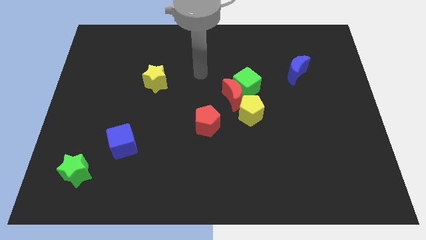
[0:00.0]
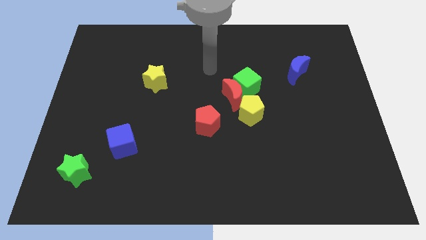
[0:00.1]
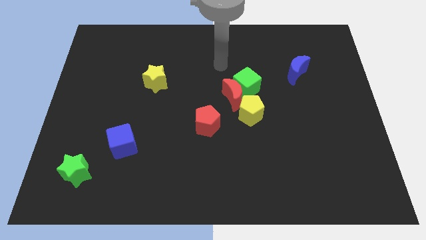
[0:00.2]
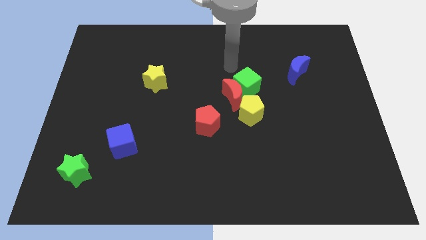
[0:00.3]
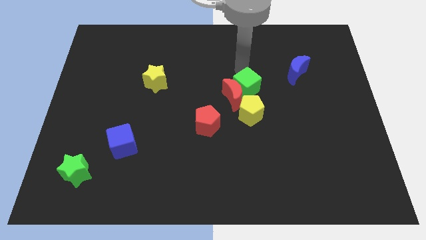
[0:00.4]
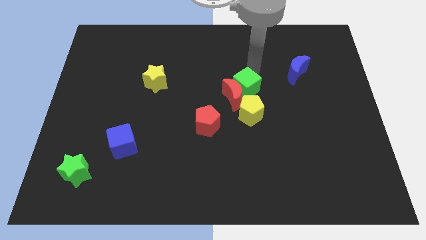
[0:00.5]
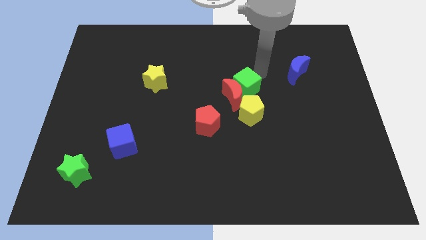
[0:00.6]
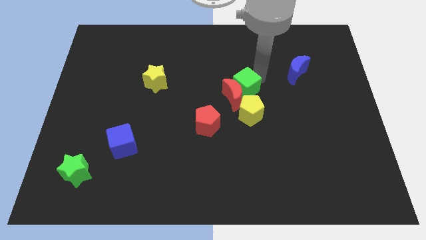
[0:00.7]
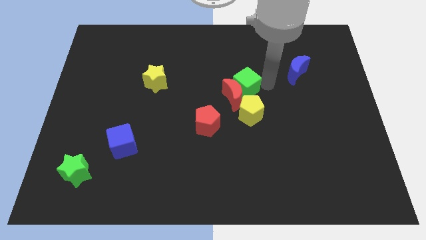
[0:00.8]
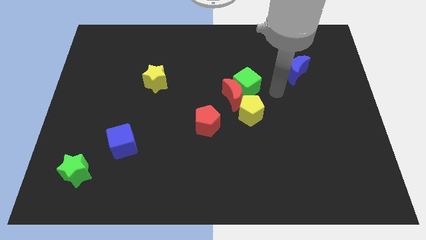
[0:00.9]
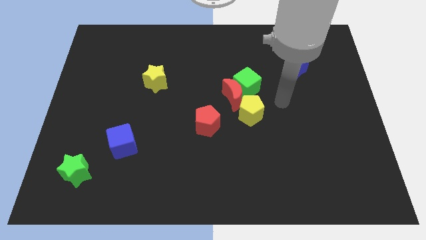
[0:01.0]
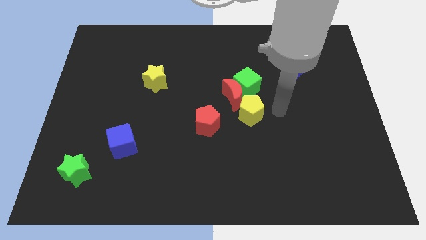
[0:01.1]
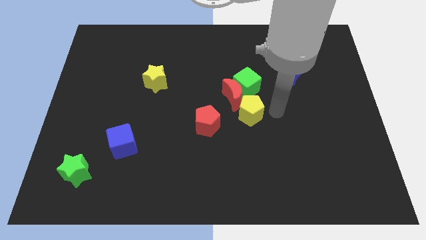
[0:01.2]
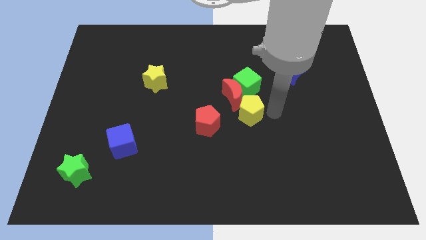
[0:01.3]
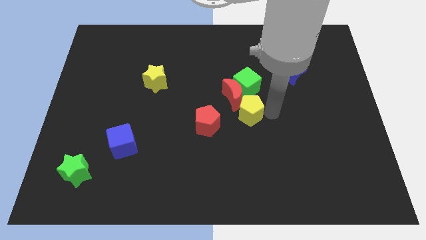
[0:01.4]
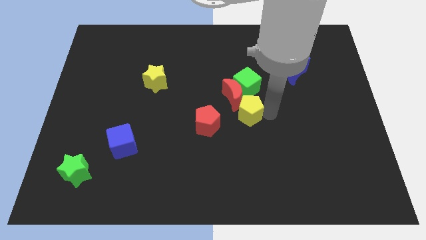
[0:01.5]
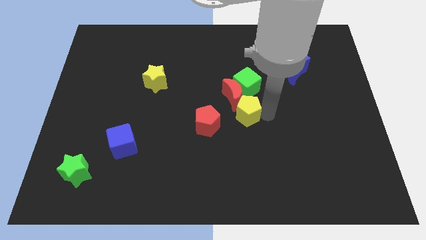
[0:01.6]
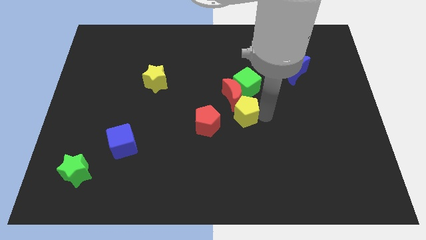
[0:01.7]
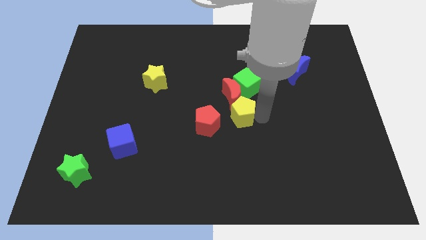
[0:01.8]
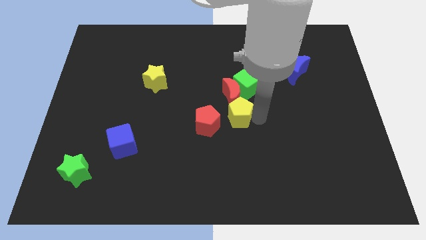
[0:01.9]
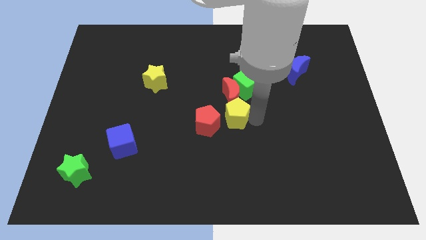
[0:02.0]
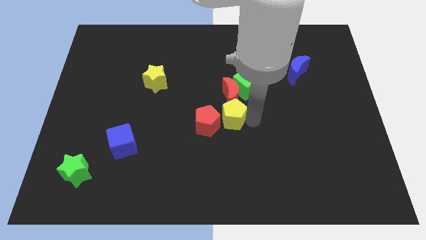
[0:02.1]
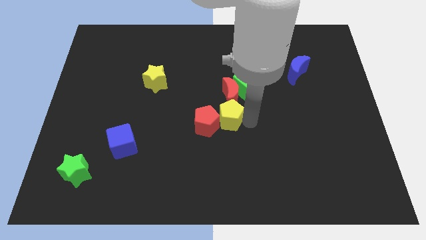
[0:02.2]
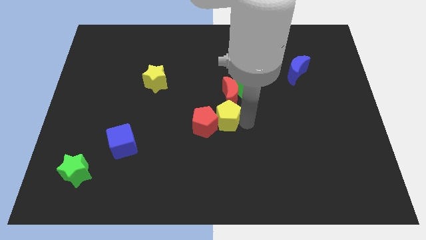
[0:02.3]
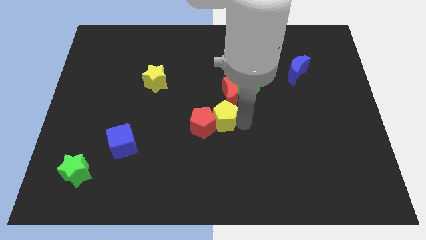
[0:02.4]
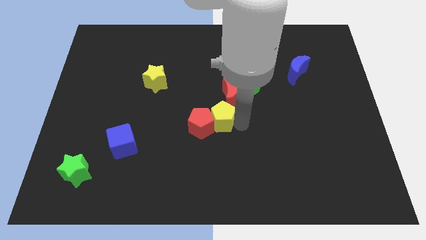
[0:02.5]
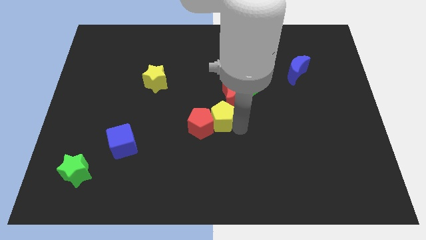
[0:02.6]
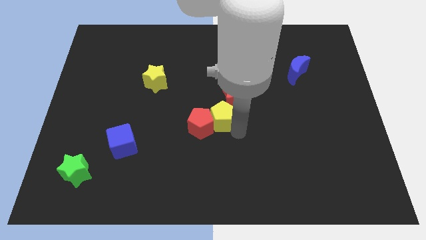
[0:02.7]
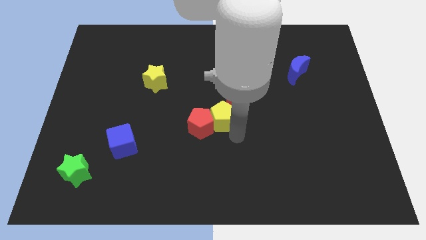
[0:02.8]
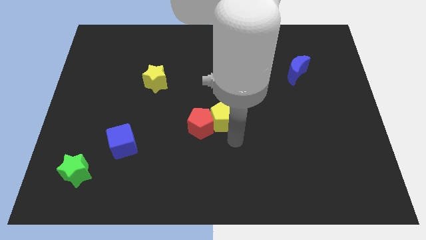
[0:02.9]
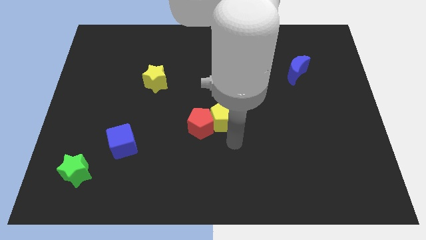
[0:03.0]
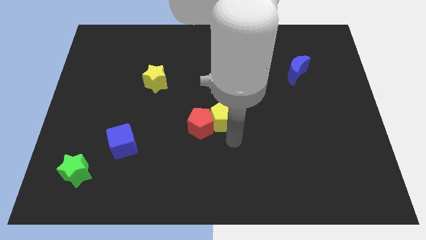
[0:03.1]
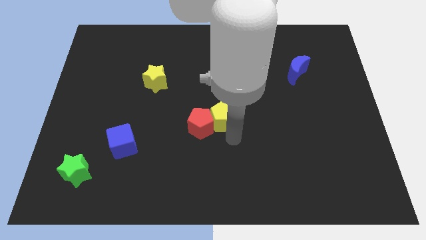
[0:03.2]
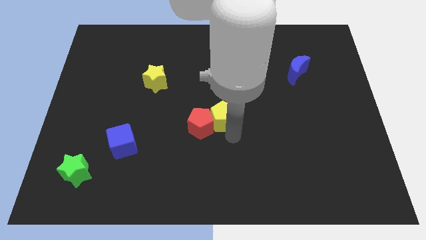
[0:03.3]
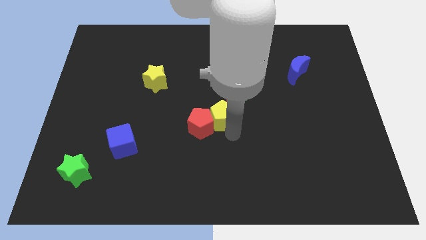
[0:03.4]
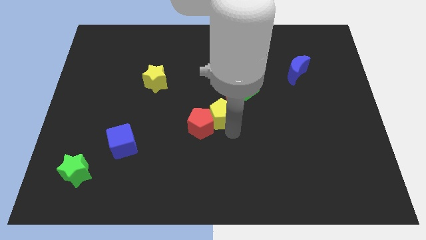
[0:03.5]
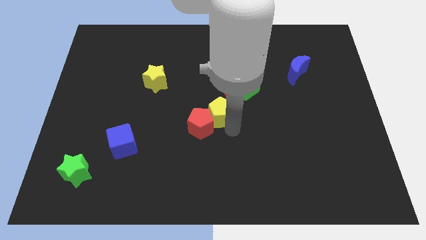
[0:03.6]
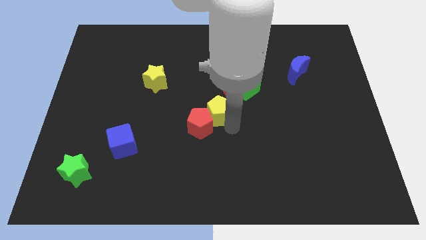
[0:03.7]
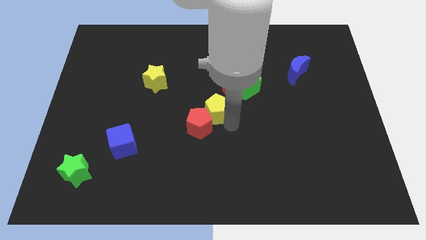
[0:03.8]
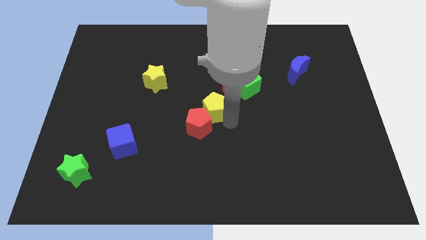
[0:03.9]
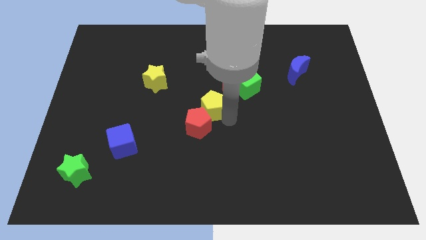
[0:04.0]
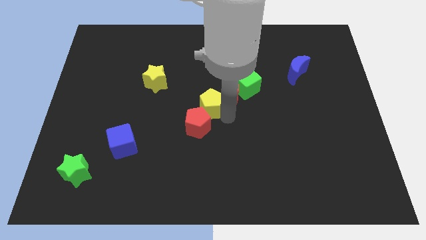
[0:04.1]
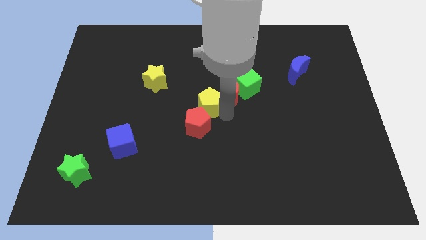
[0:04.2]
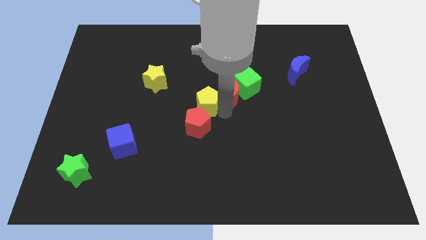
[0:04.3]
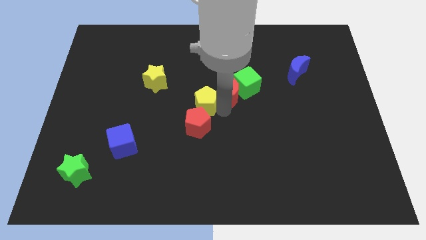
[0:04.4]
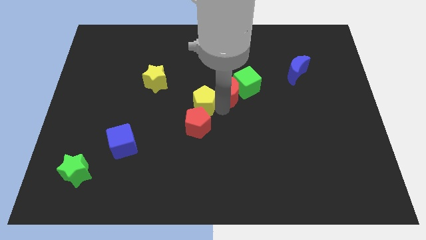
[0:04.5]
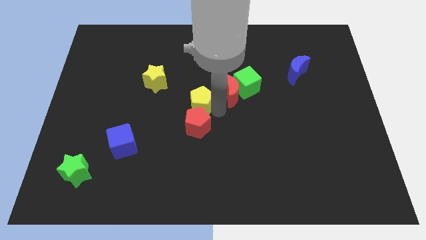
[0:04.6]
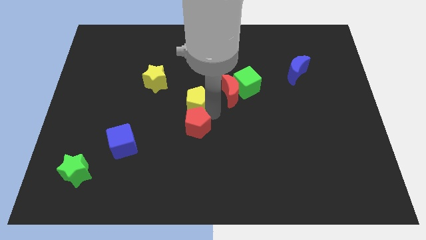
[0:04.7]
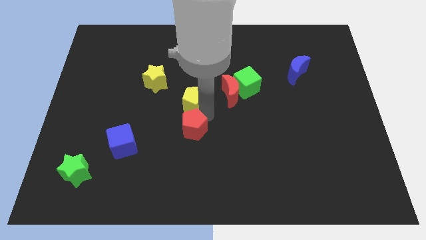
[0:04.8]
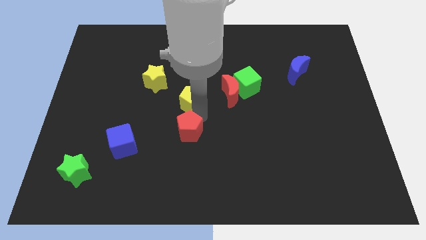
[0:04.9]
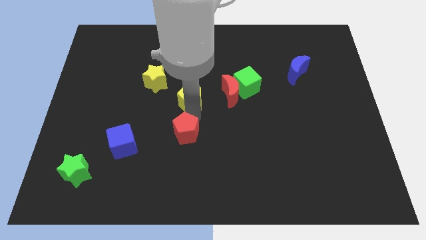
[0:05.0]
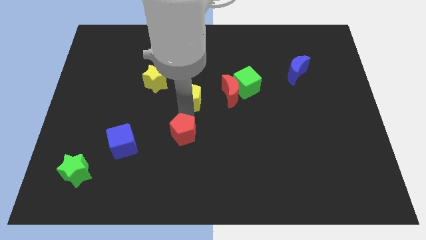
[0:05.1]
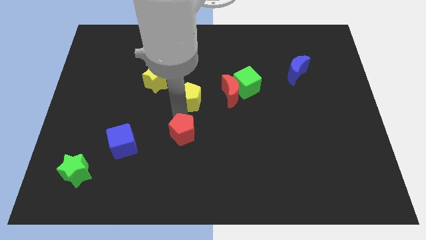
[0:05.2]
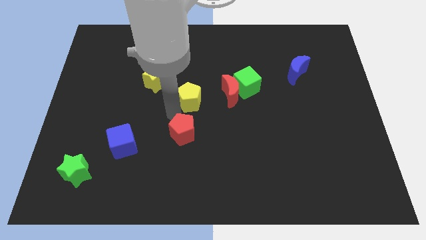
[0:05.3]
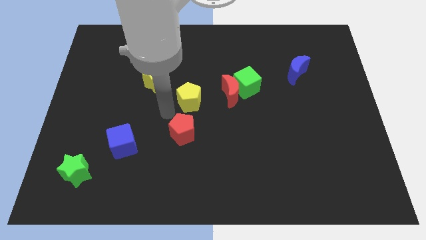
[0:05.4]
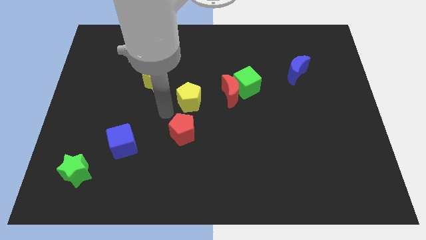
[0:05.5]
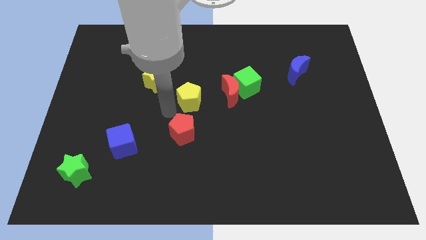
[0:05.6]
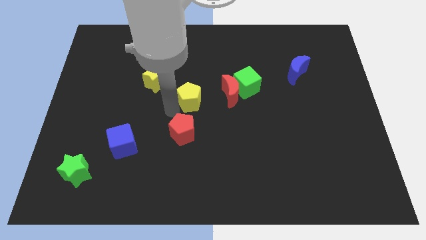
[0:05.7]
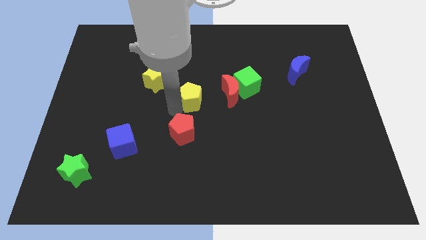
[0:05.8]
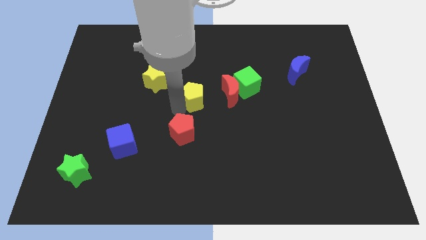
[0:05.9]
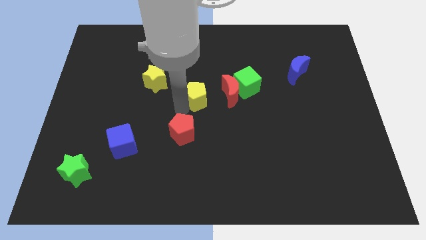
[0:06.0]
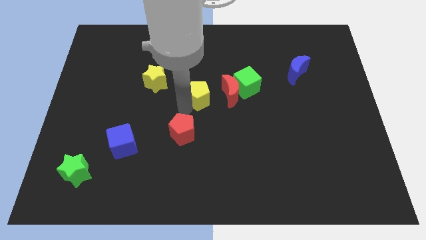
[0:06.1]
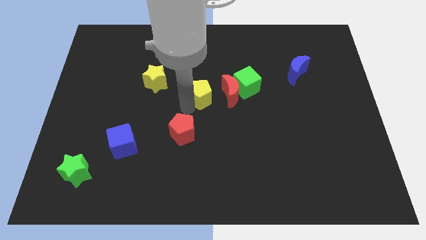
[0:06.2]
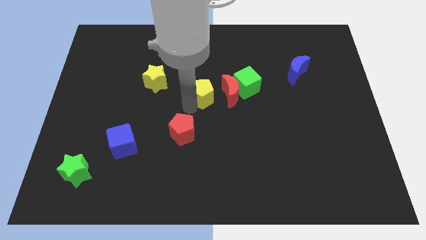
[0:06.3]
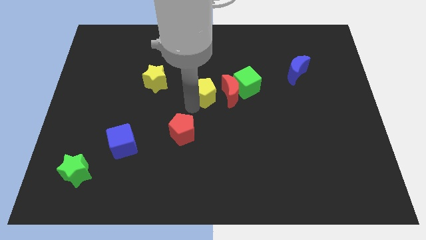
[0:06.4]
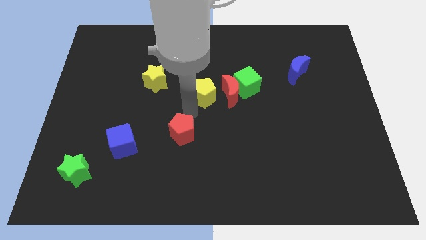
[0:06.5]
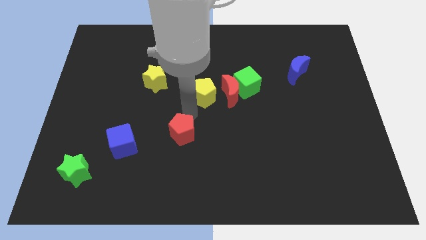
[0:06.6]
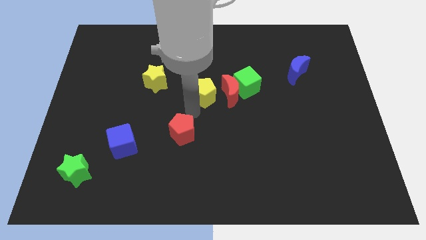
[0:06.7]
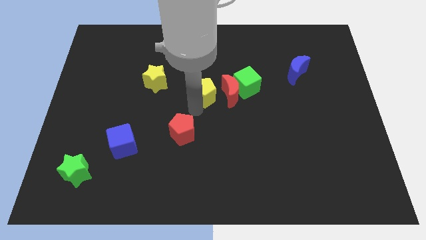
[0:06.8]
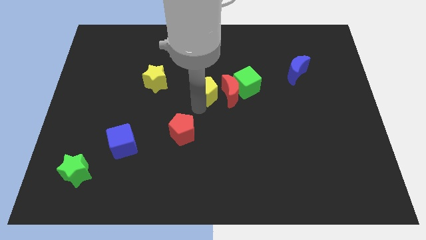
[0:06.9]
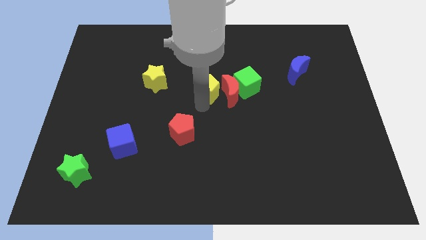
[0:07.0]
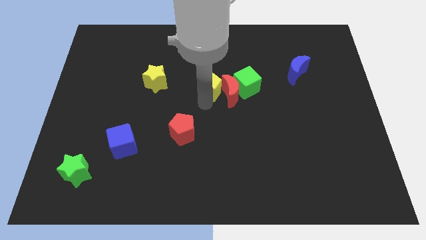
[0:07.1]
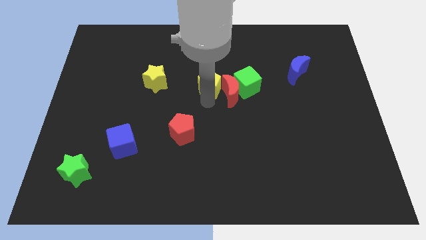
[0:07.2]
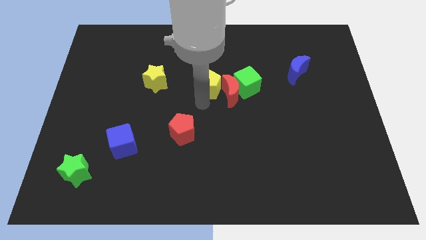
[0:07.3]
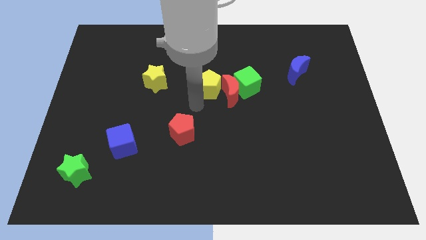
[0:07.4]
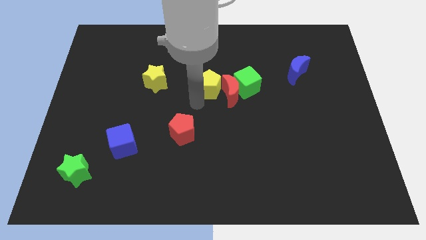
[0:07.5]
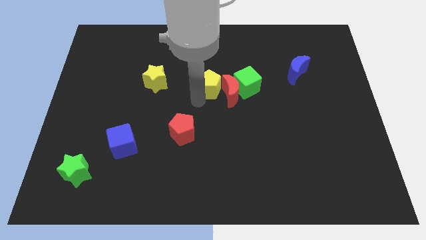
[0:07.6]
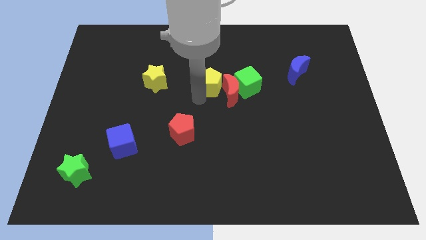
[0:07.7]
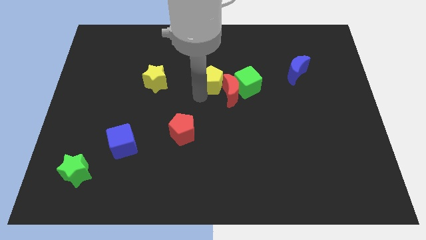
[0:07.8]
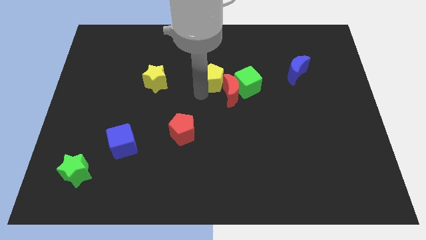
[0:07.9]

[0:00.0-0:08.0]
move the yellow pentagon to the top left side of the green cube
